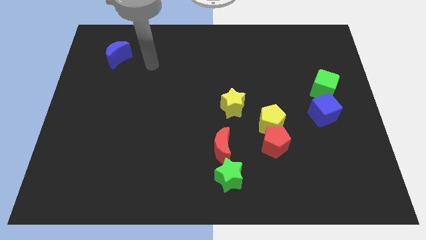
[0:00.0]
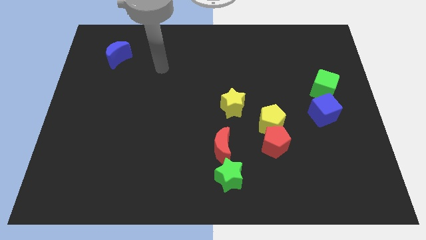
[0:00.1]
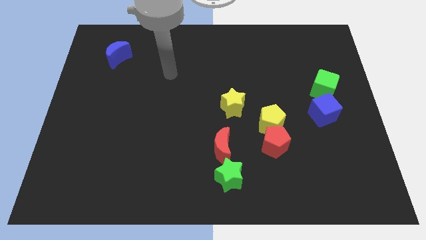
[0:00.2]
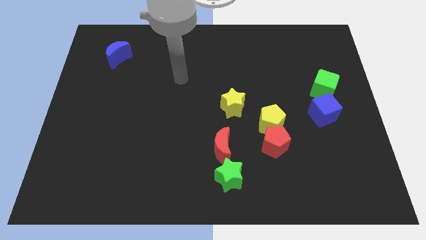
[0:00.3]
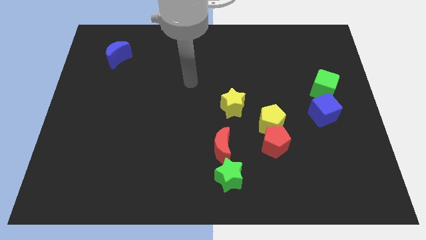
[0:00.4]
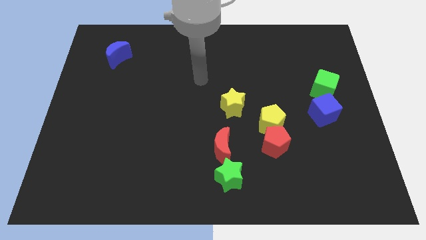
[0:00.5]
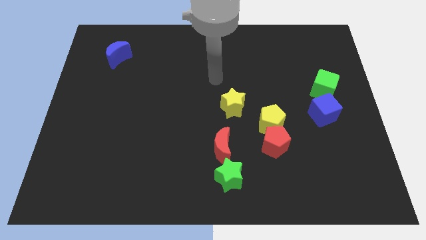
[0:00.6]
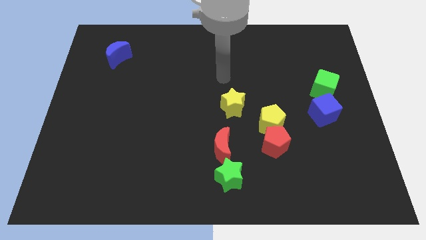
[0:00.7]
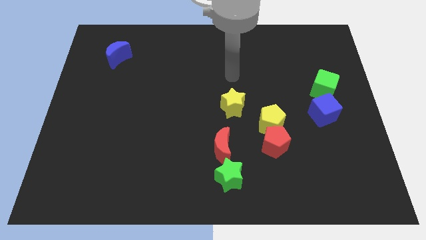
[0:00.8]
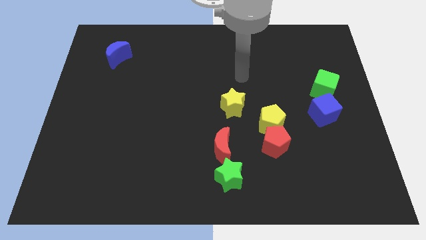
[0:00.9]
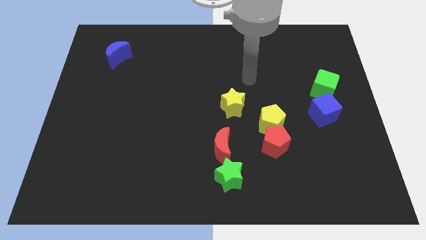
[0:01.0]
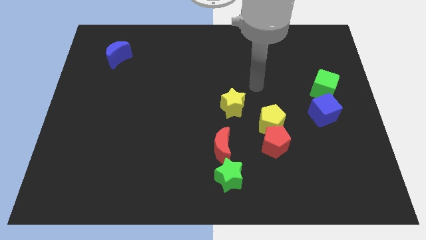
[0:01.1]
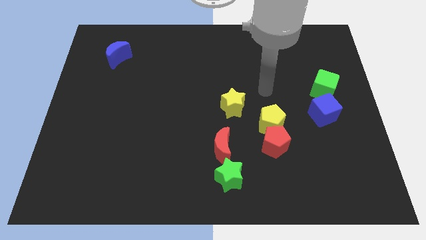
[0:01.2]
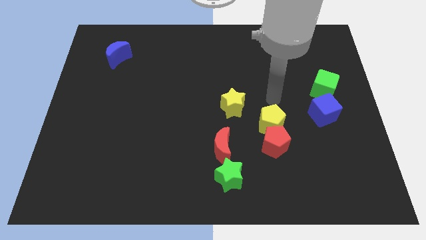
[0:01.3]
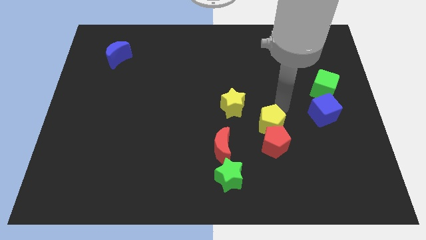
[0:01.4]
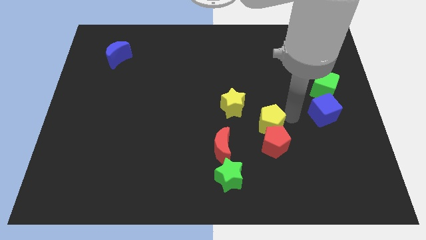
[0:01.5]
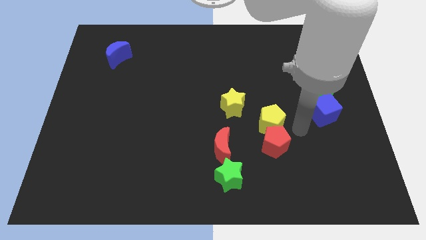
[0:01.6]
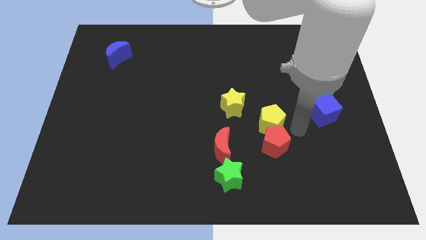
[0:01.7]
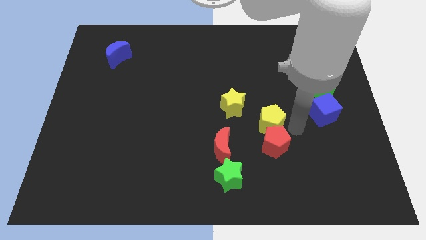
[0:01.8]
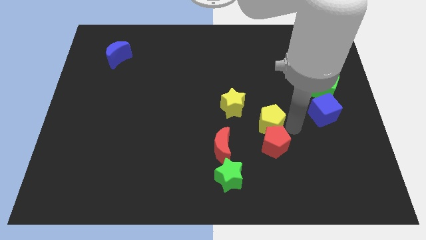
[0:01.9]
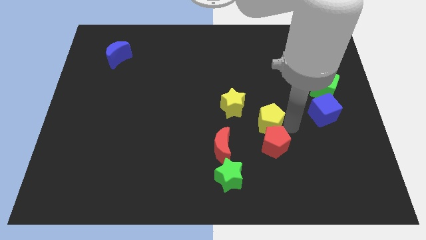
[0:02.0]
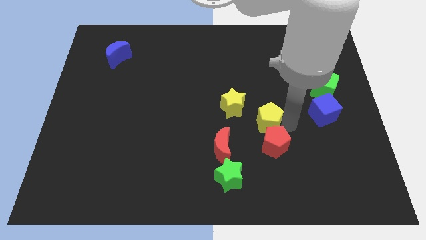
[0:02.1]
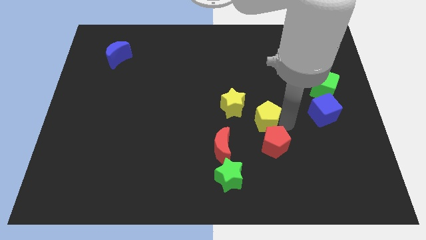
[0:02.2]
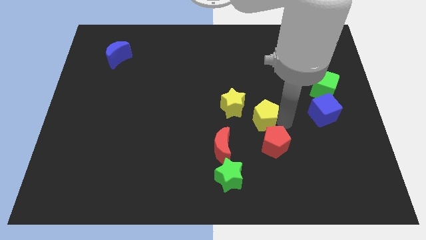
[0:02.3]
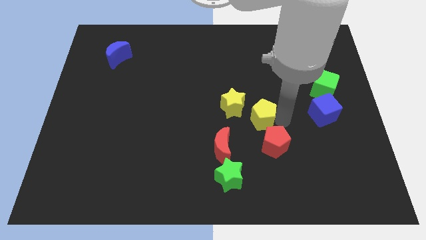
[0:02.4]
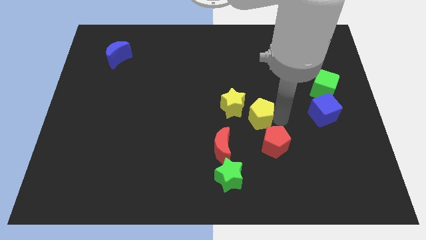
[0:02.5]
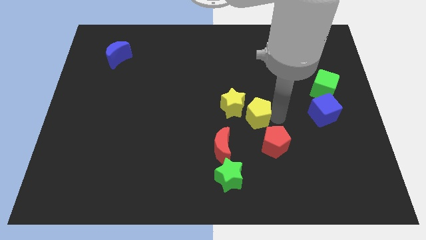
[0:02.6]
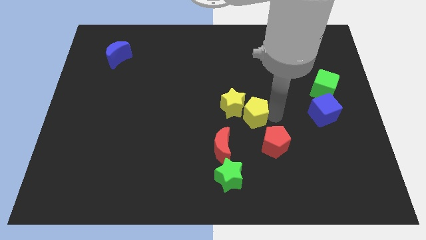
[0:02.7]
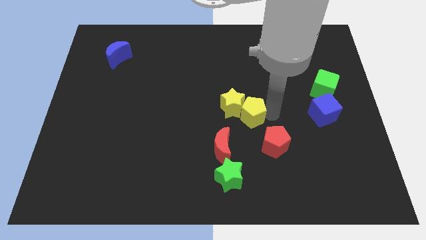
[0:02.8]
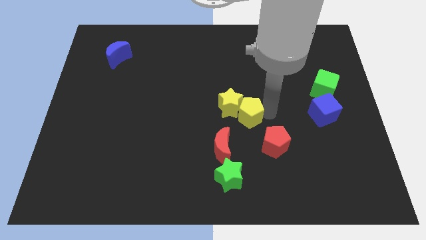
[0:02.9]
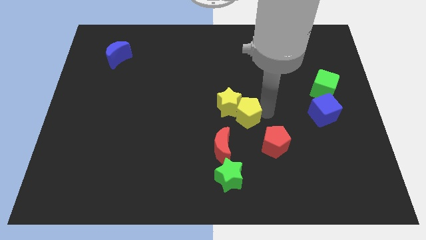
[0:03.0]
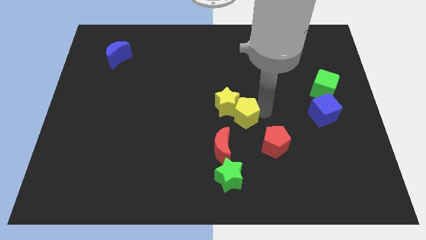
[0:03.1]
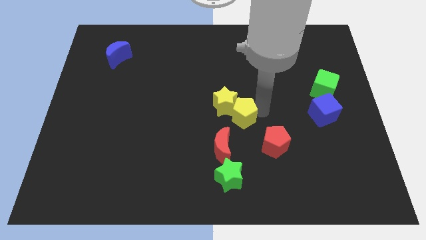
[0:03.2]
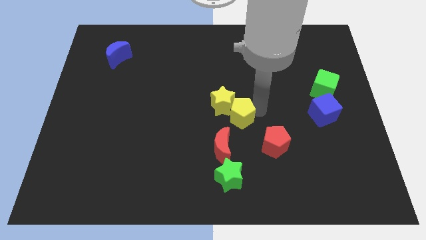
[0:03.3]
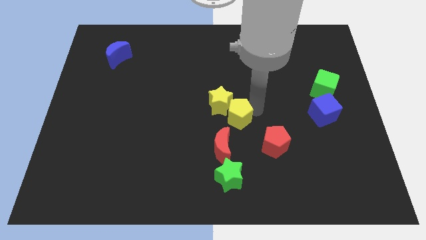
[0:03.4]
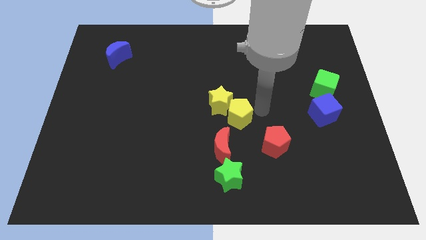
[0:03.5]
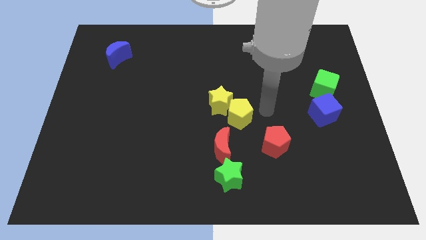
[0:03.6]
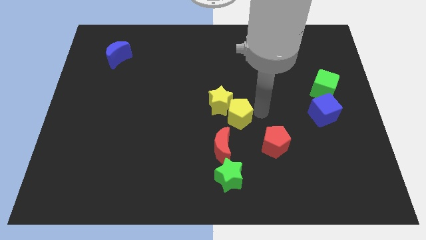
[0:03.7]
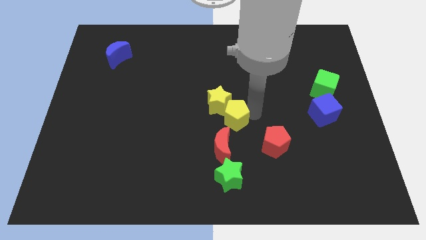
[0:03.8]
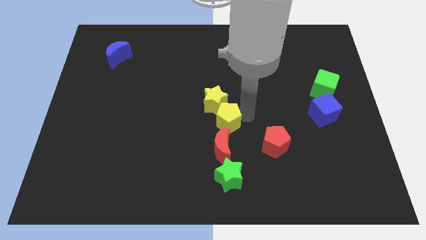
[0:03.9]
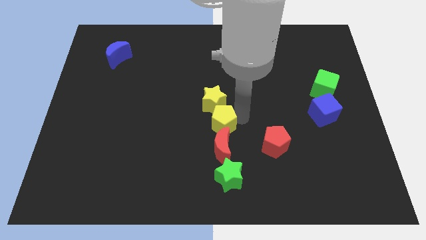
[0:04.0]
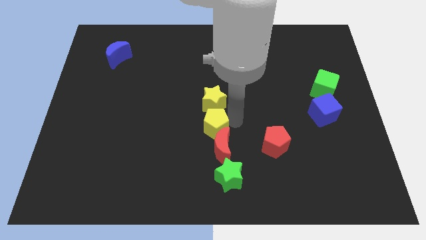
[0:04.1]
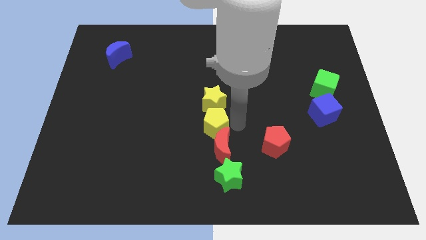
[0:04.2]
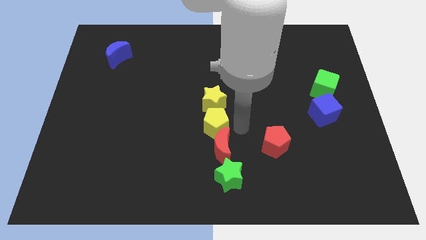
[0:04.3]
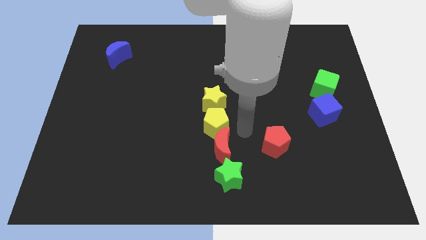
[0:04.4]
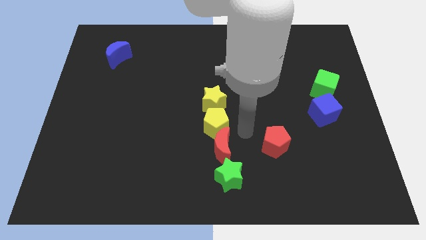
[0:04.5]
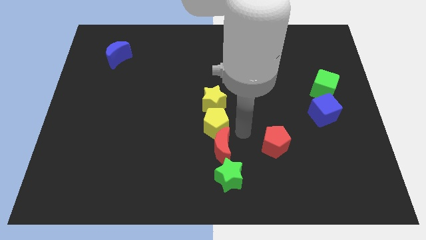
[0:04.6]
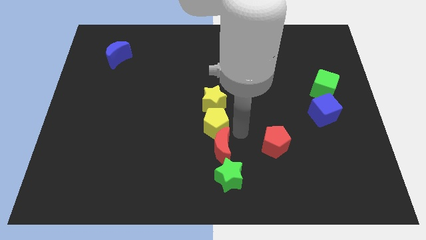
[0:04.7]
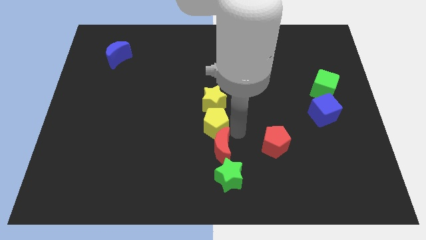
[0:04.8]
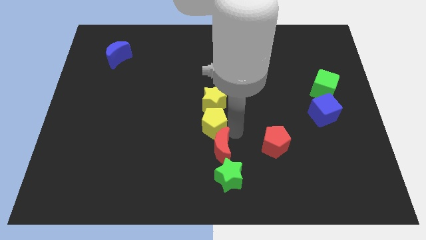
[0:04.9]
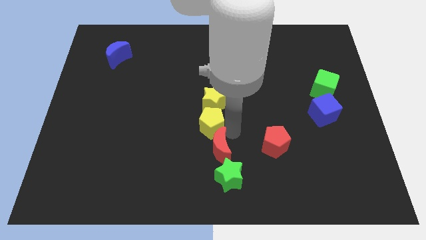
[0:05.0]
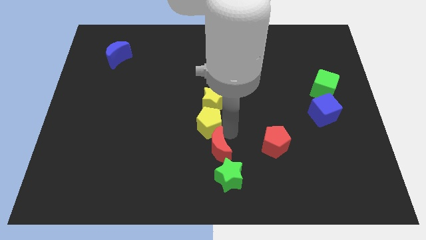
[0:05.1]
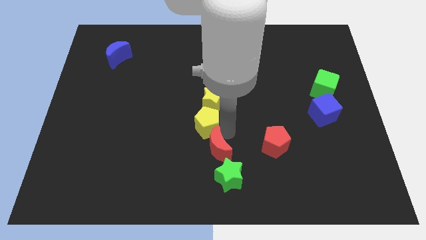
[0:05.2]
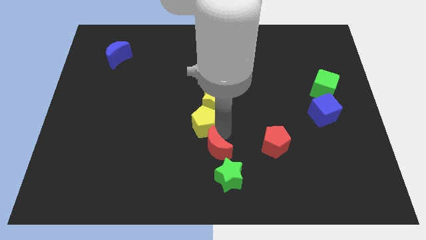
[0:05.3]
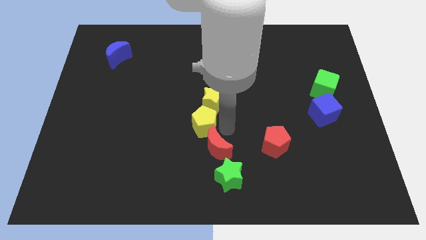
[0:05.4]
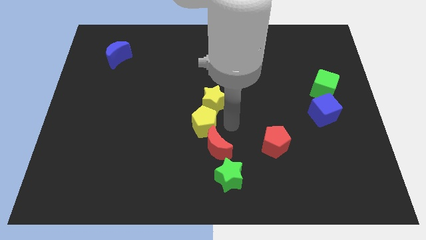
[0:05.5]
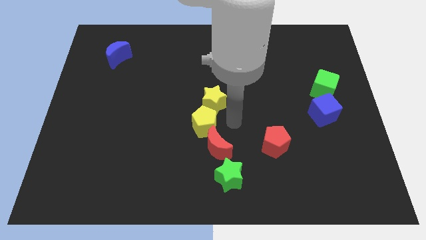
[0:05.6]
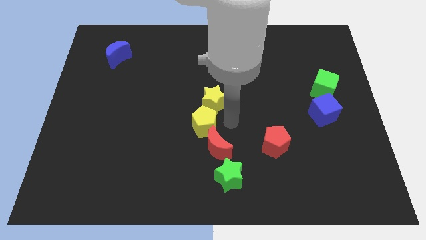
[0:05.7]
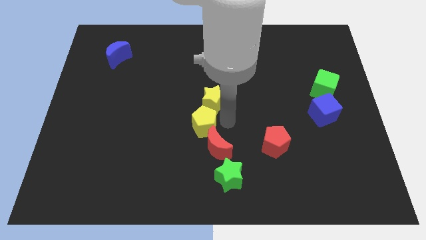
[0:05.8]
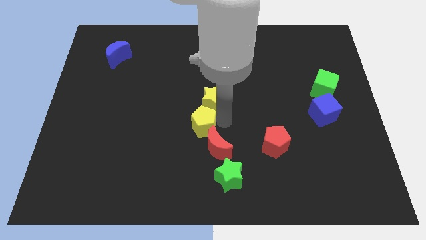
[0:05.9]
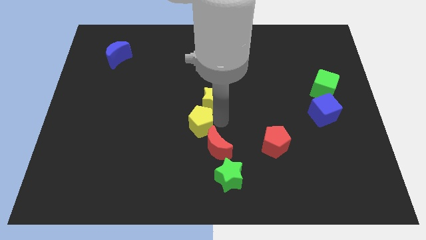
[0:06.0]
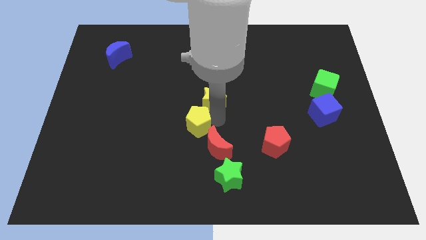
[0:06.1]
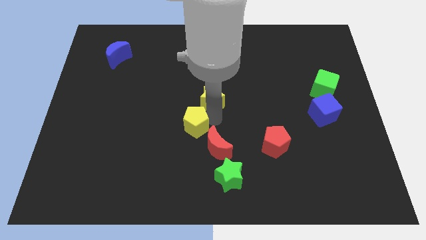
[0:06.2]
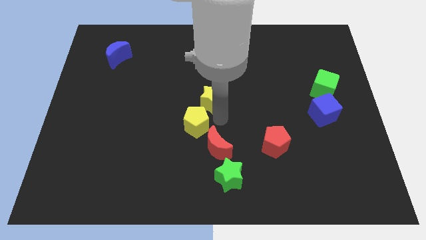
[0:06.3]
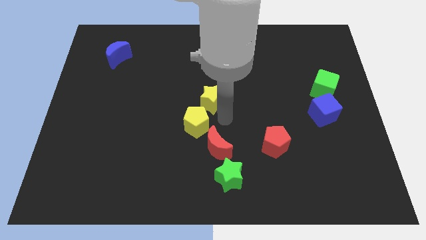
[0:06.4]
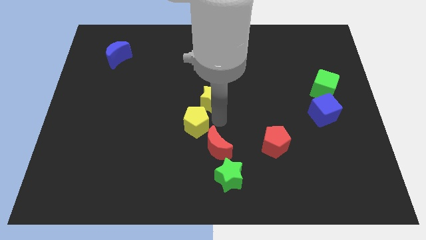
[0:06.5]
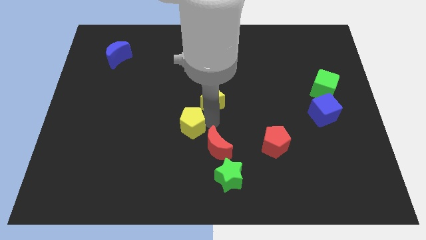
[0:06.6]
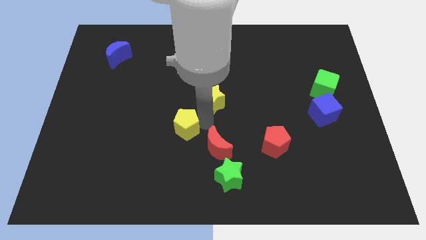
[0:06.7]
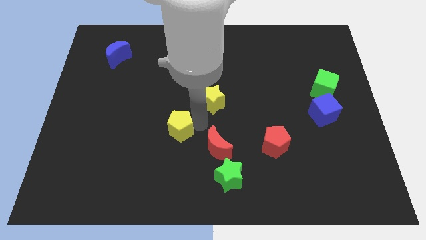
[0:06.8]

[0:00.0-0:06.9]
push the yellow pentagon left

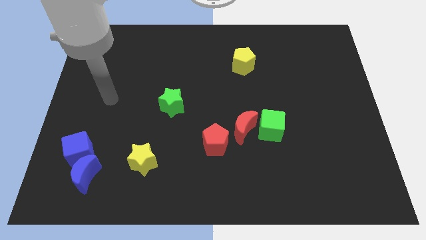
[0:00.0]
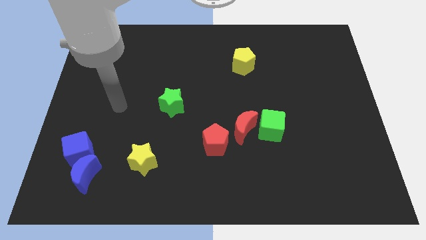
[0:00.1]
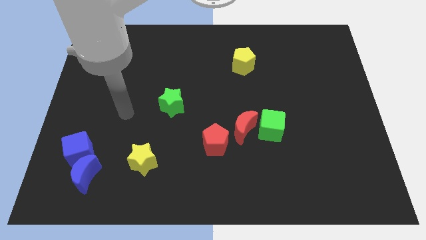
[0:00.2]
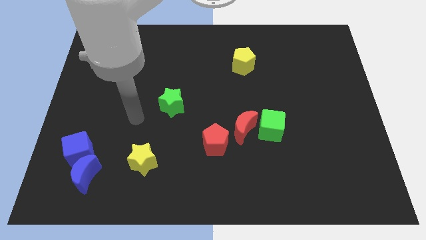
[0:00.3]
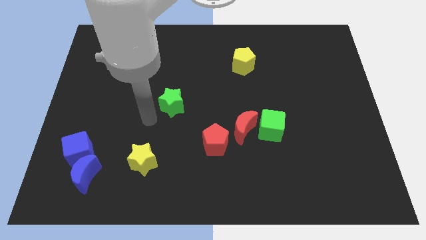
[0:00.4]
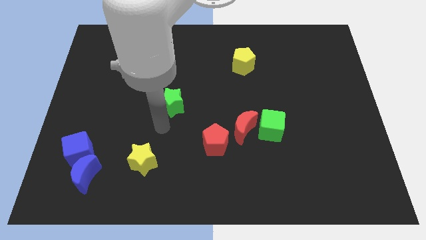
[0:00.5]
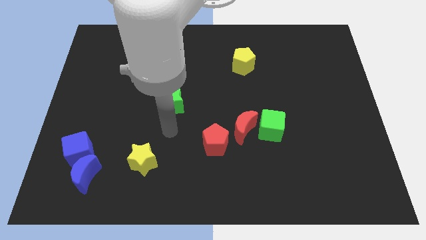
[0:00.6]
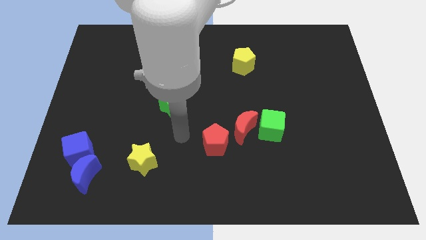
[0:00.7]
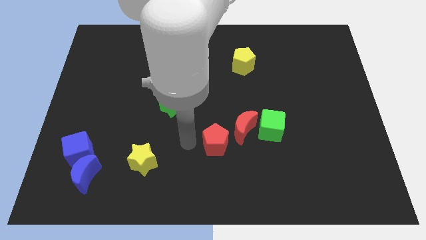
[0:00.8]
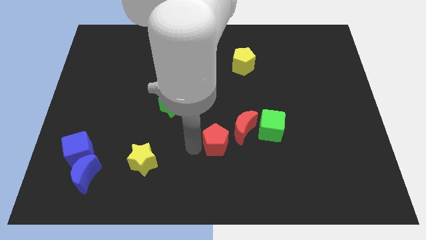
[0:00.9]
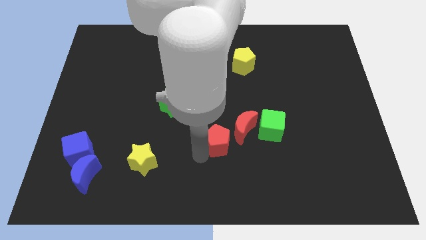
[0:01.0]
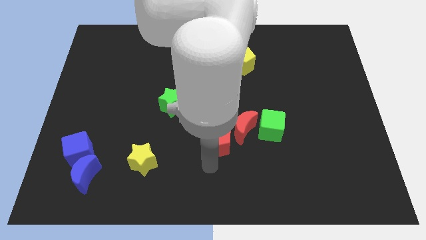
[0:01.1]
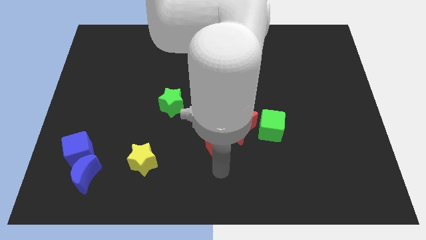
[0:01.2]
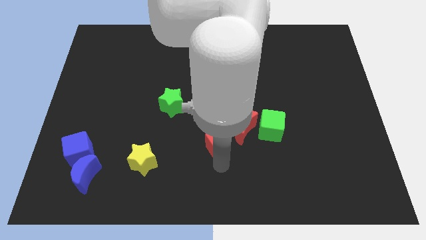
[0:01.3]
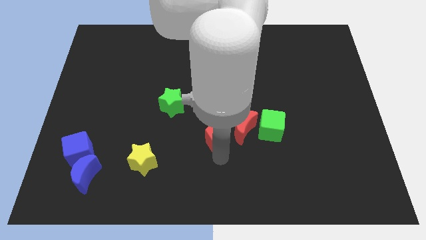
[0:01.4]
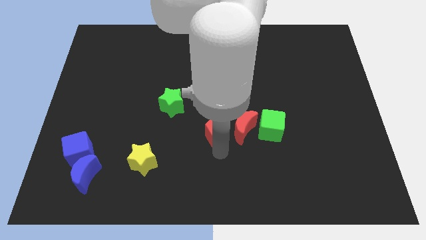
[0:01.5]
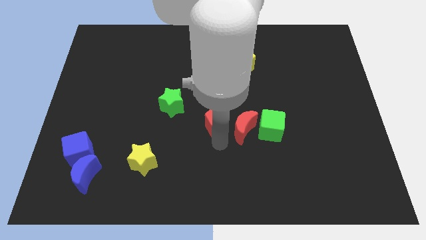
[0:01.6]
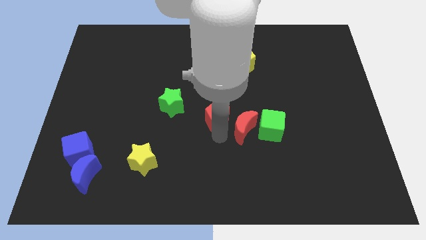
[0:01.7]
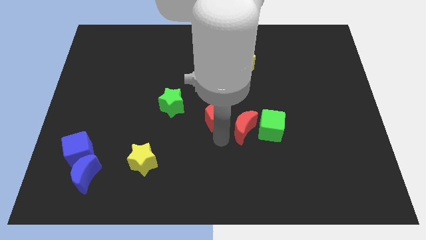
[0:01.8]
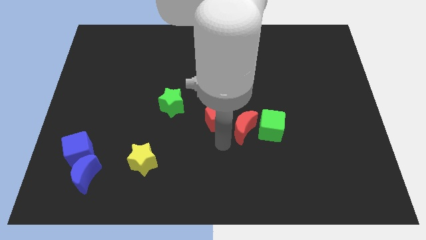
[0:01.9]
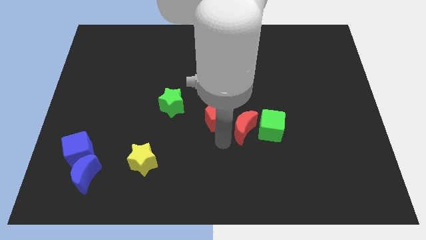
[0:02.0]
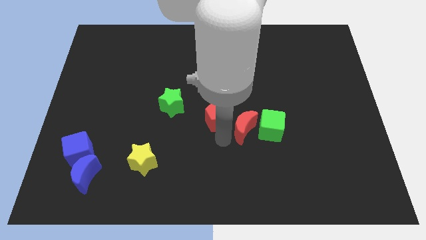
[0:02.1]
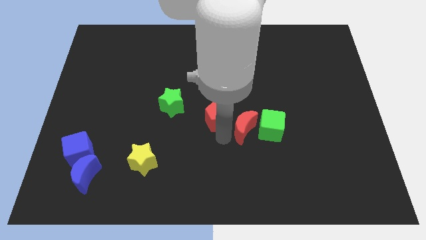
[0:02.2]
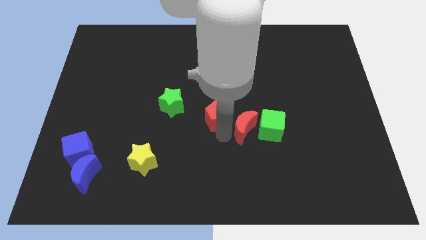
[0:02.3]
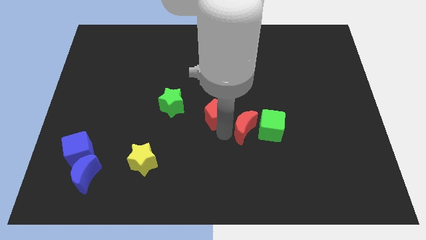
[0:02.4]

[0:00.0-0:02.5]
move the red pentagon a little bit upwards
